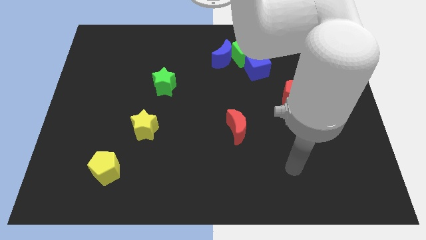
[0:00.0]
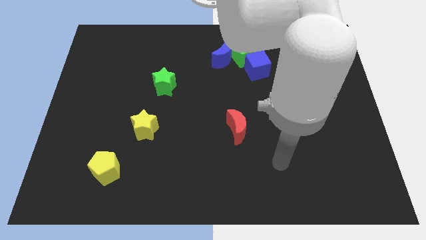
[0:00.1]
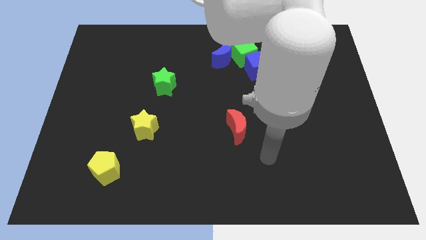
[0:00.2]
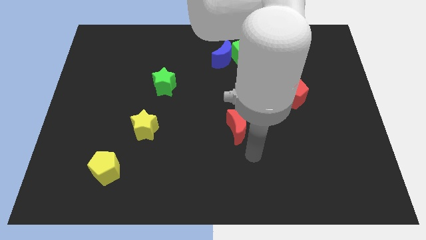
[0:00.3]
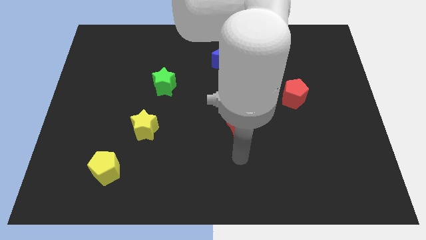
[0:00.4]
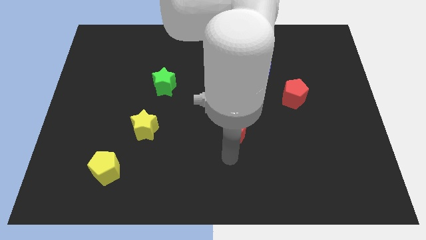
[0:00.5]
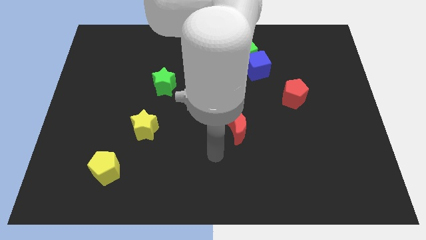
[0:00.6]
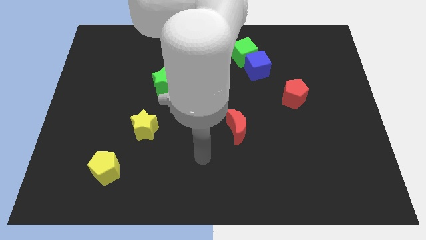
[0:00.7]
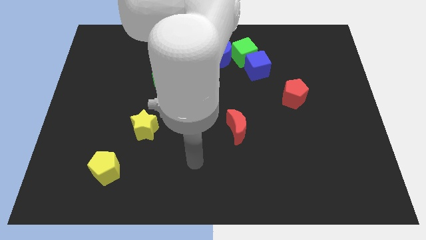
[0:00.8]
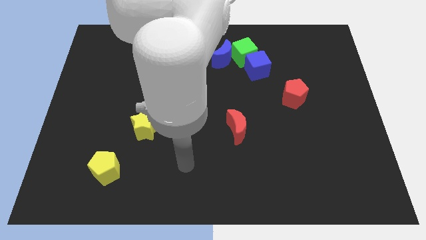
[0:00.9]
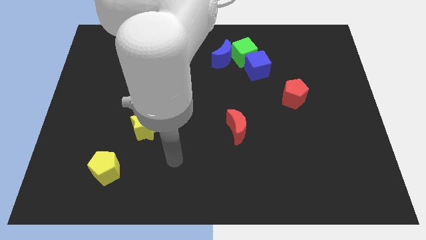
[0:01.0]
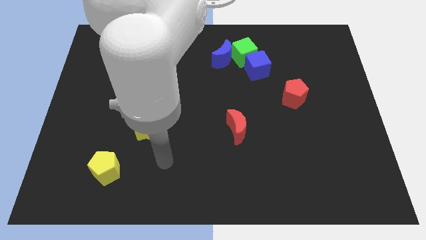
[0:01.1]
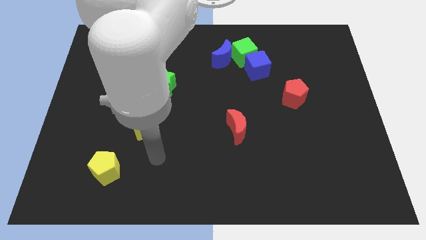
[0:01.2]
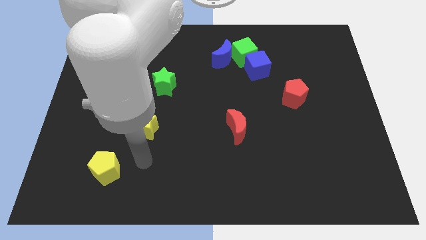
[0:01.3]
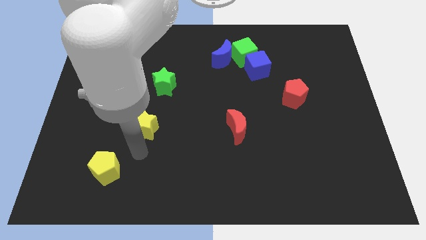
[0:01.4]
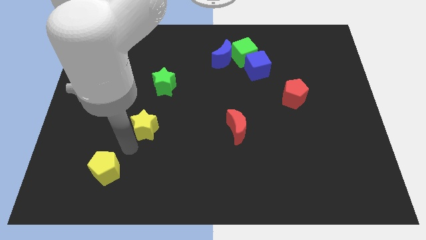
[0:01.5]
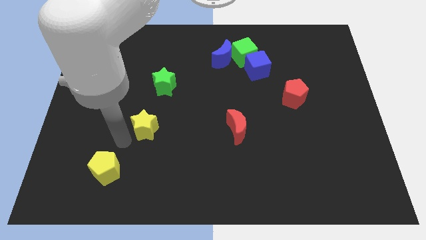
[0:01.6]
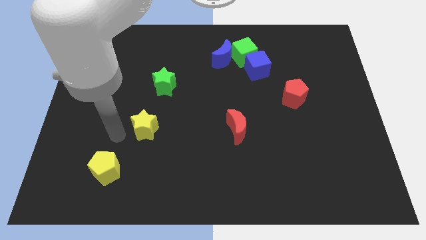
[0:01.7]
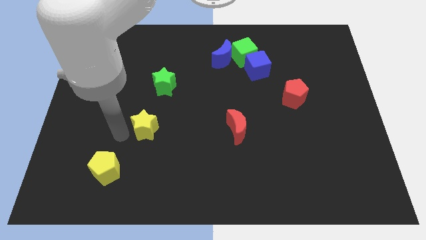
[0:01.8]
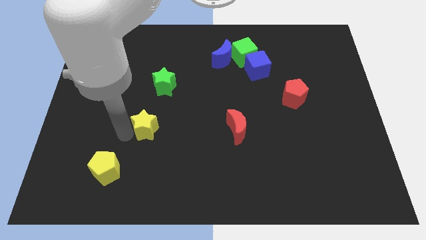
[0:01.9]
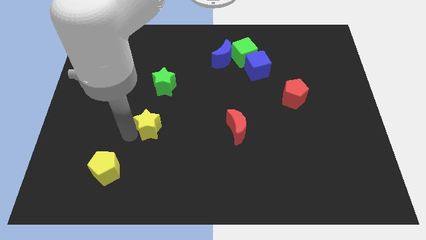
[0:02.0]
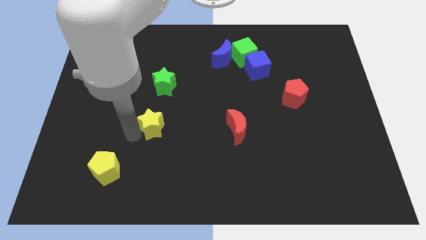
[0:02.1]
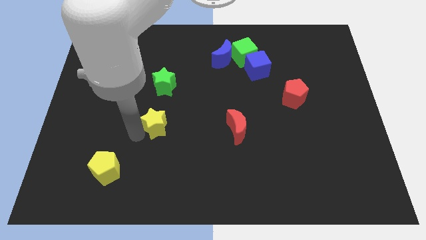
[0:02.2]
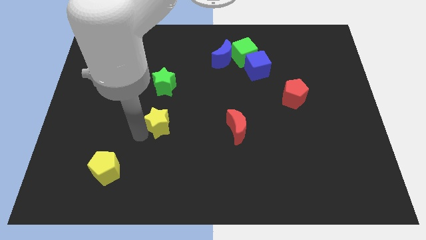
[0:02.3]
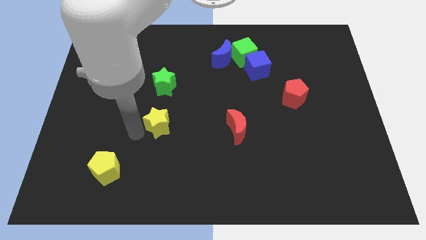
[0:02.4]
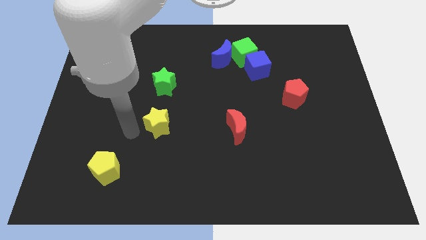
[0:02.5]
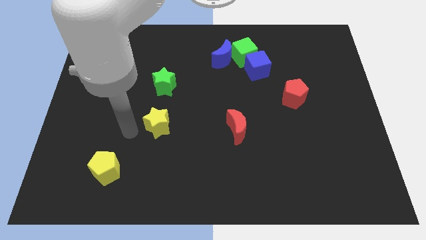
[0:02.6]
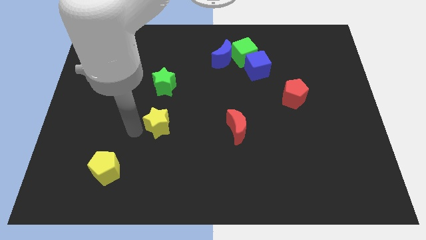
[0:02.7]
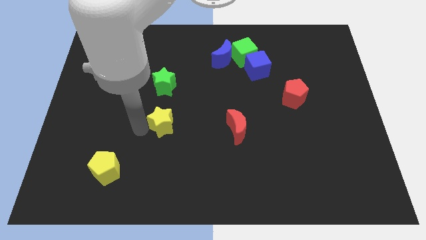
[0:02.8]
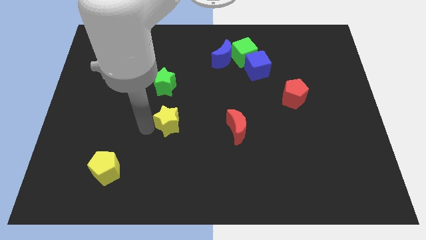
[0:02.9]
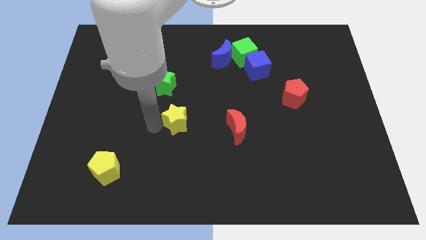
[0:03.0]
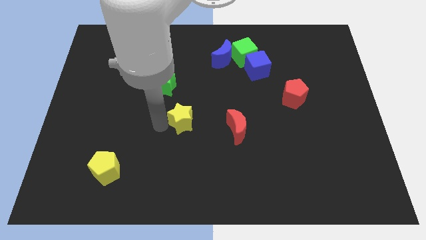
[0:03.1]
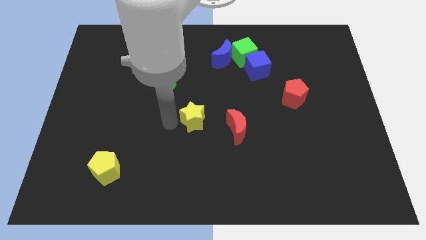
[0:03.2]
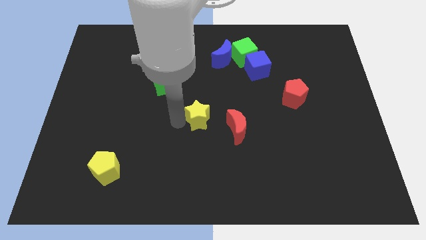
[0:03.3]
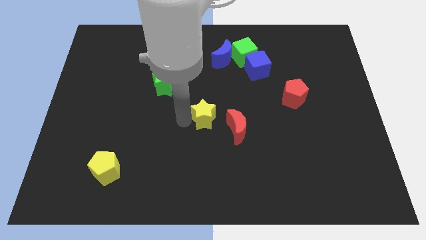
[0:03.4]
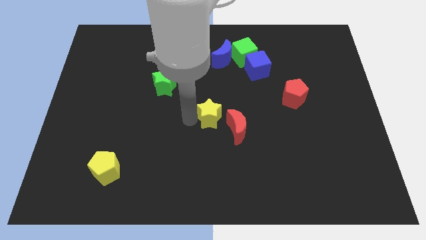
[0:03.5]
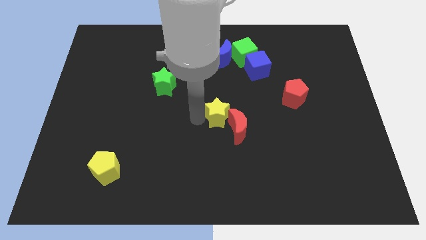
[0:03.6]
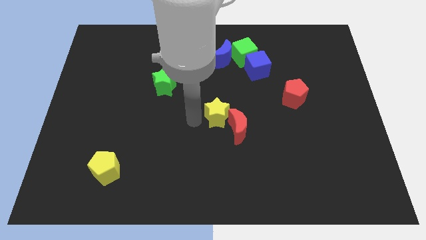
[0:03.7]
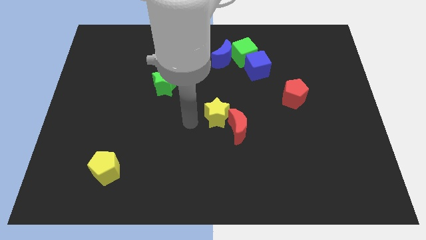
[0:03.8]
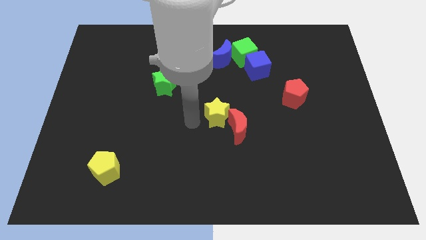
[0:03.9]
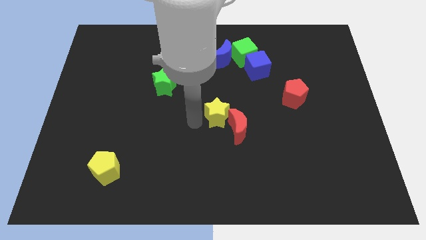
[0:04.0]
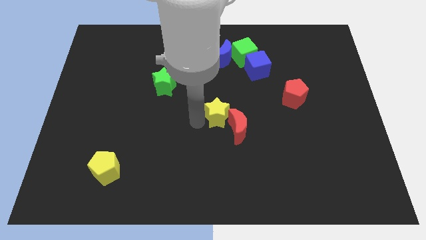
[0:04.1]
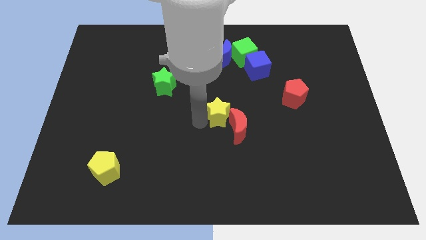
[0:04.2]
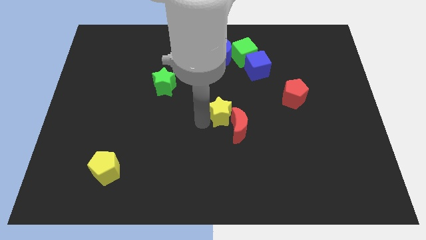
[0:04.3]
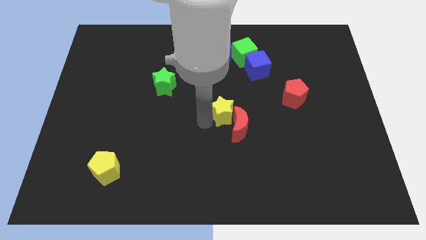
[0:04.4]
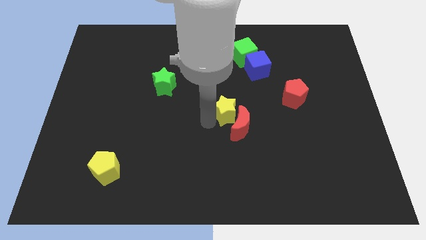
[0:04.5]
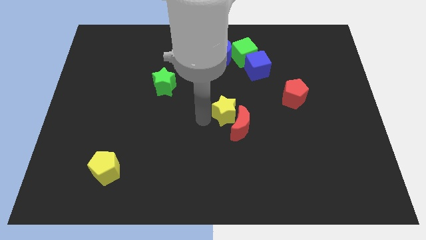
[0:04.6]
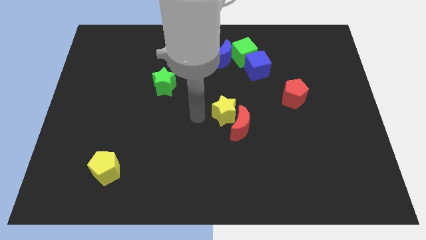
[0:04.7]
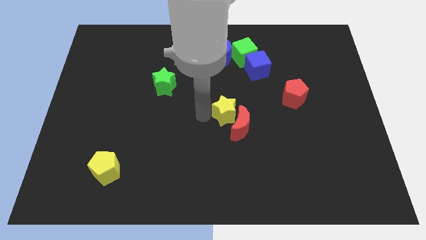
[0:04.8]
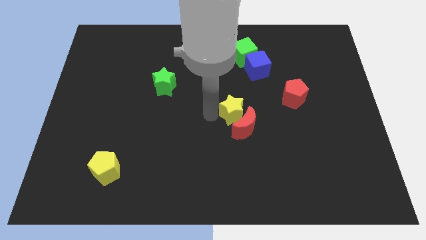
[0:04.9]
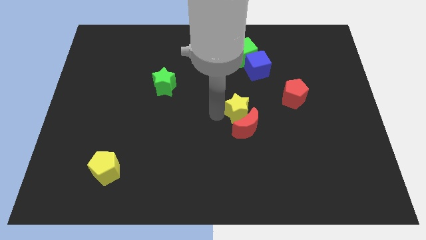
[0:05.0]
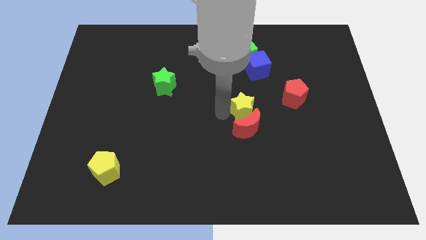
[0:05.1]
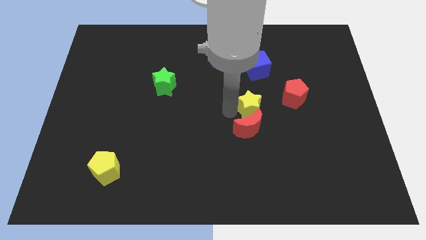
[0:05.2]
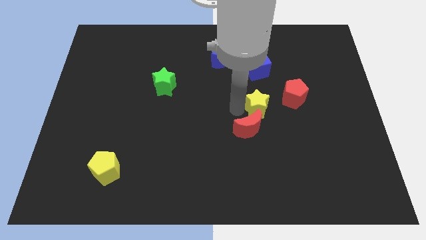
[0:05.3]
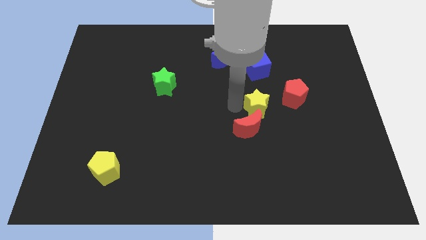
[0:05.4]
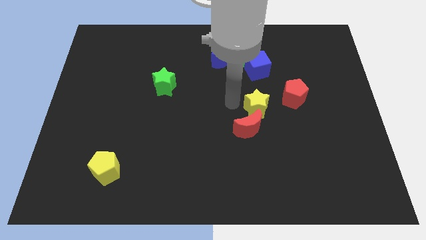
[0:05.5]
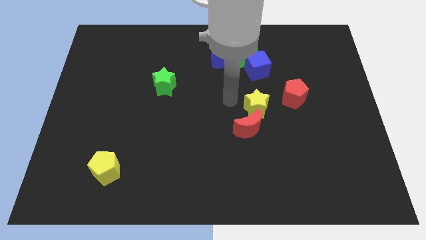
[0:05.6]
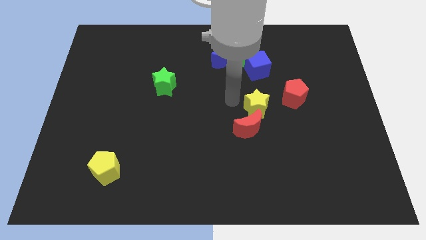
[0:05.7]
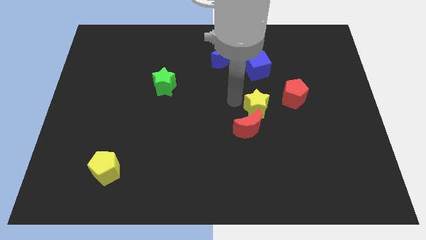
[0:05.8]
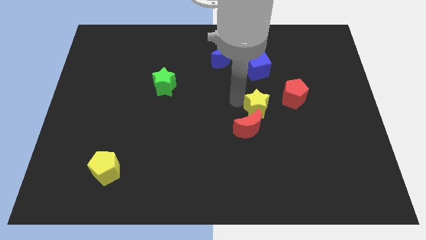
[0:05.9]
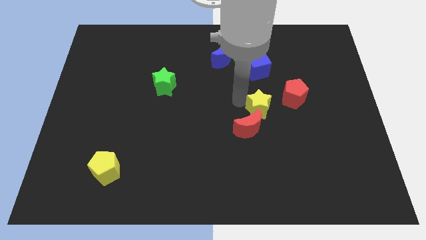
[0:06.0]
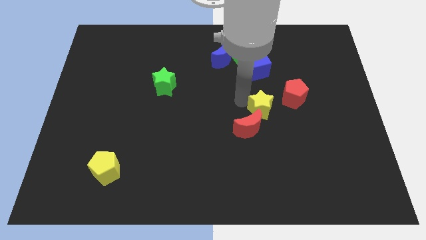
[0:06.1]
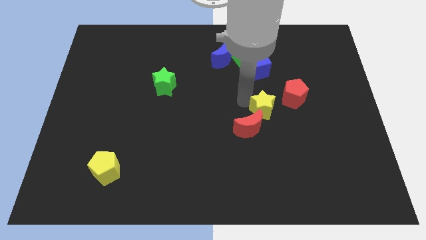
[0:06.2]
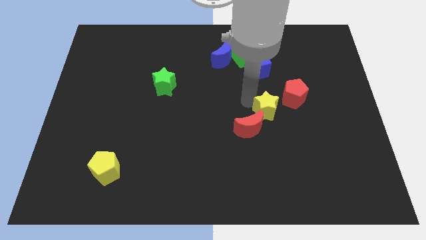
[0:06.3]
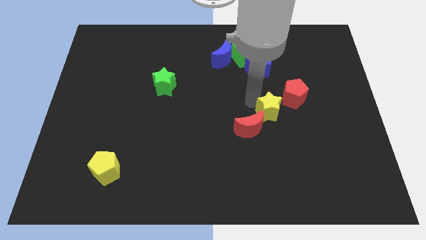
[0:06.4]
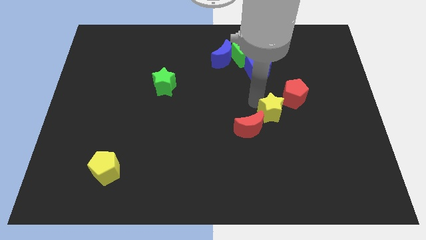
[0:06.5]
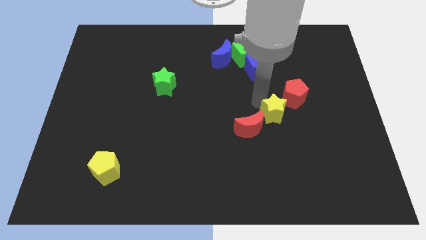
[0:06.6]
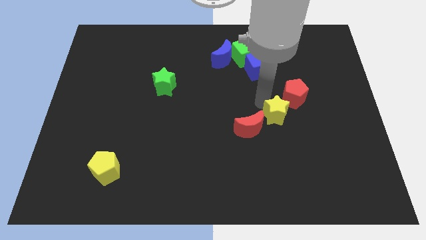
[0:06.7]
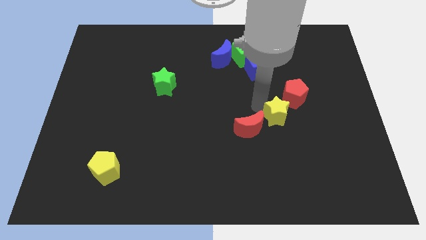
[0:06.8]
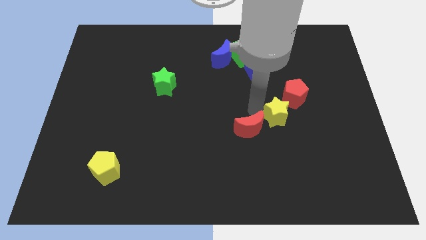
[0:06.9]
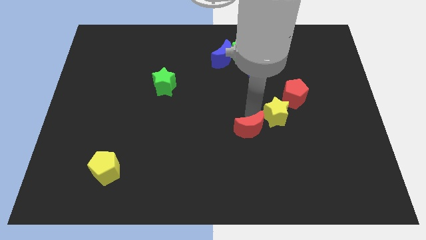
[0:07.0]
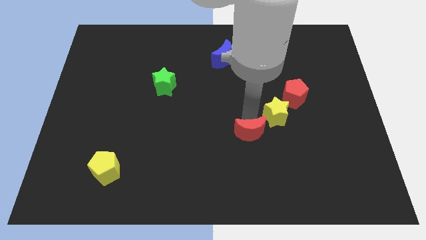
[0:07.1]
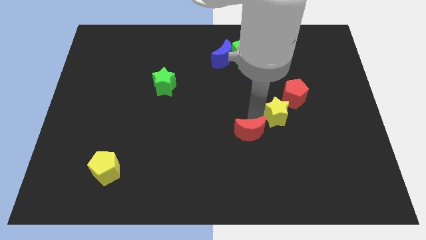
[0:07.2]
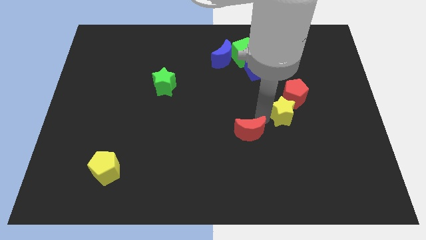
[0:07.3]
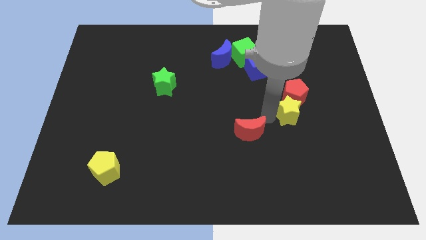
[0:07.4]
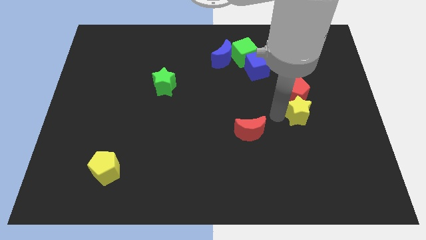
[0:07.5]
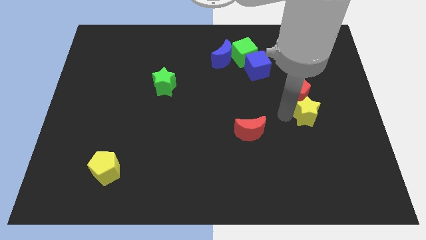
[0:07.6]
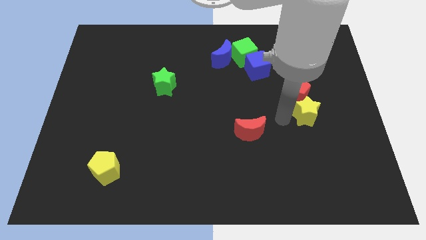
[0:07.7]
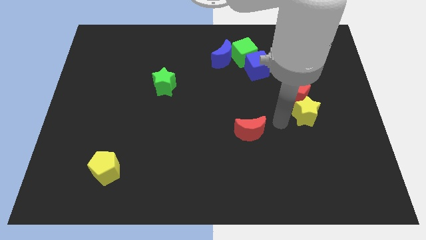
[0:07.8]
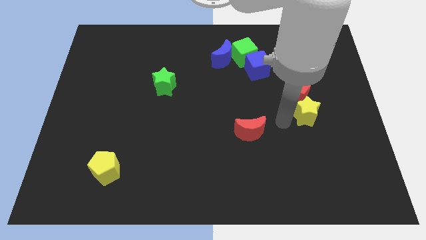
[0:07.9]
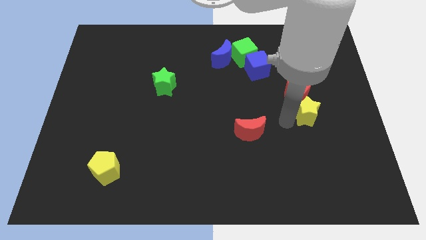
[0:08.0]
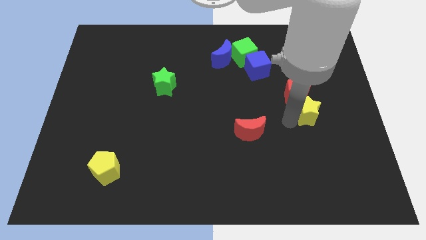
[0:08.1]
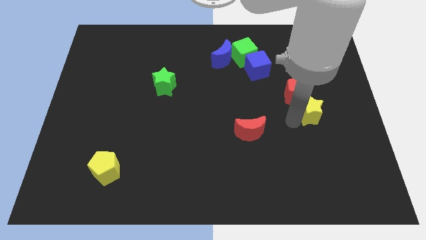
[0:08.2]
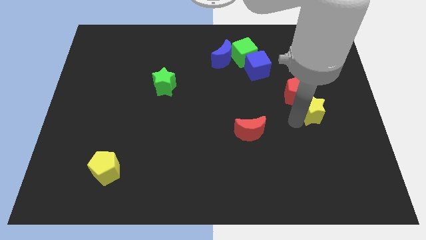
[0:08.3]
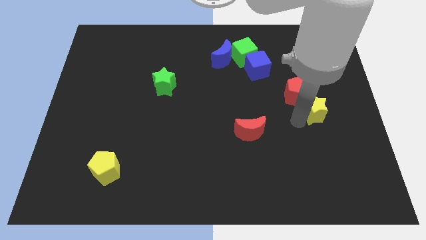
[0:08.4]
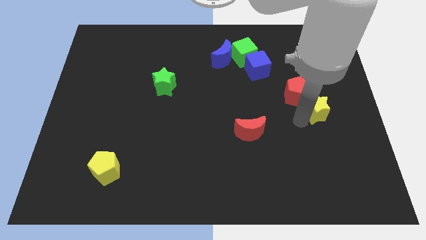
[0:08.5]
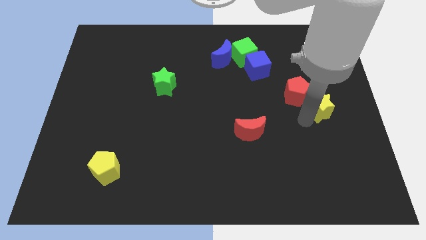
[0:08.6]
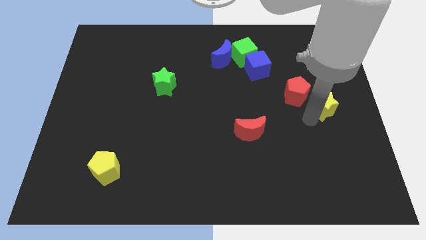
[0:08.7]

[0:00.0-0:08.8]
slide the yellow star to the center right
